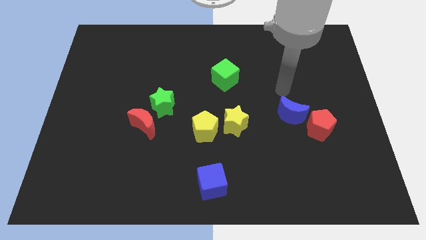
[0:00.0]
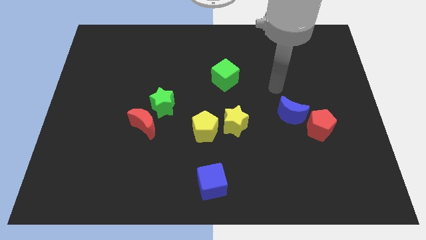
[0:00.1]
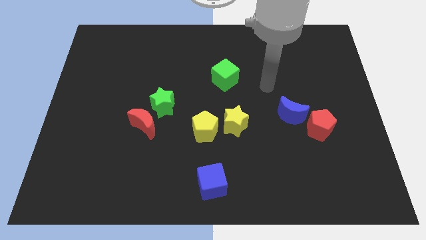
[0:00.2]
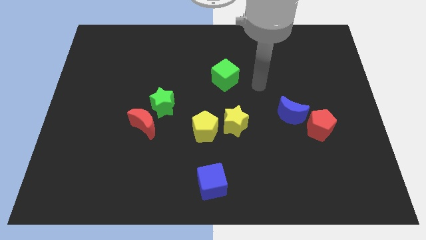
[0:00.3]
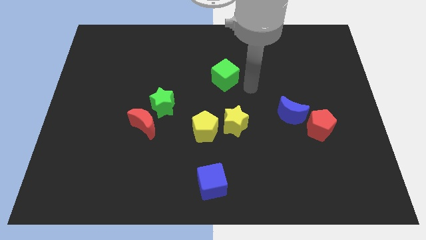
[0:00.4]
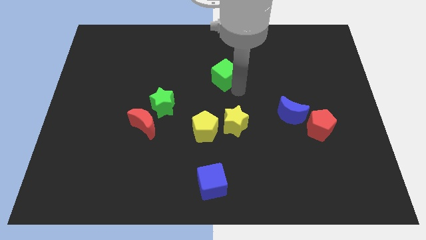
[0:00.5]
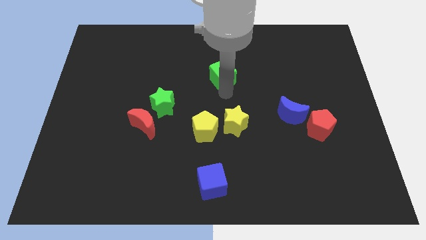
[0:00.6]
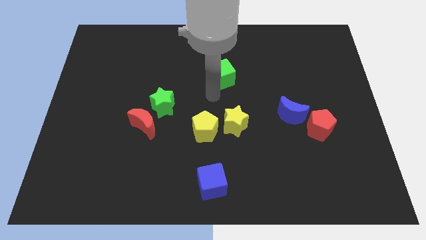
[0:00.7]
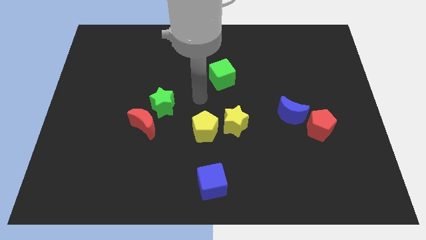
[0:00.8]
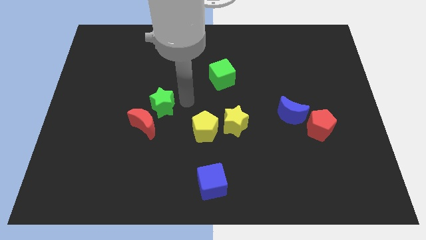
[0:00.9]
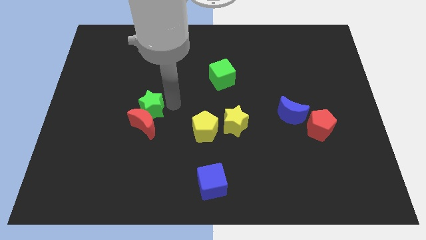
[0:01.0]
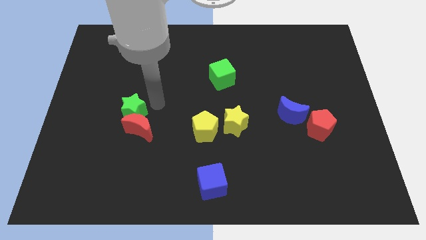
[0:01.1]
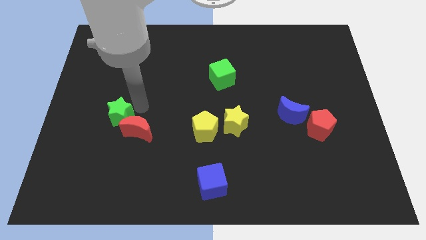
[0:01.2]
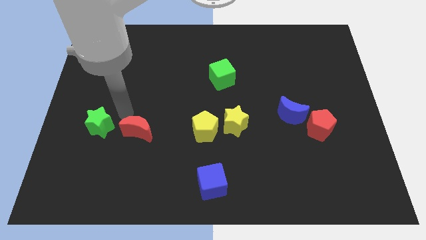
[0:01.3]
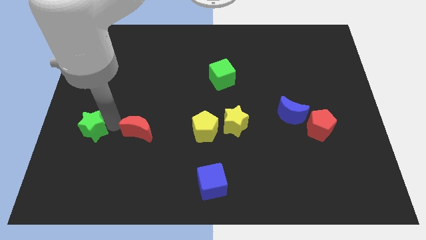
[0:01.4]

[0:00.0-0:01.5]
pull the red moon apart from the green star

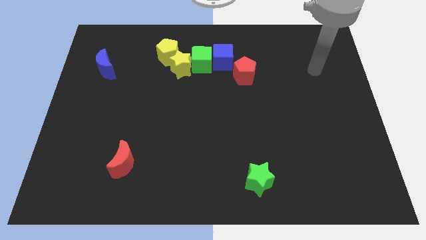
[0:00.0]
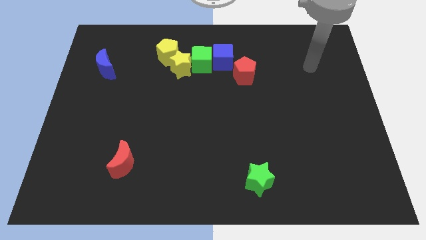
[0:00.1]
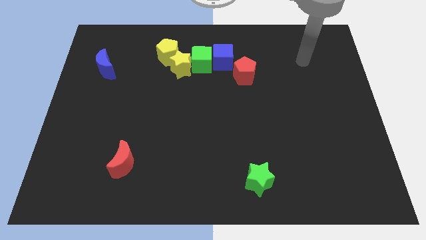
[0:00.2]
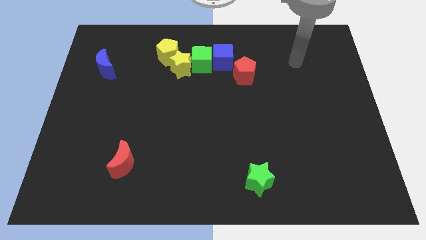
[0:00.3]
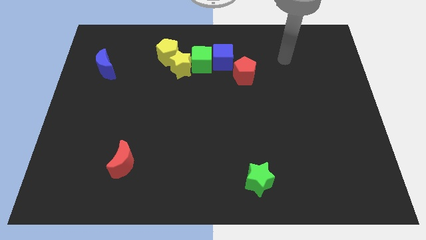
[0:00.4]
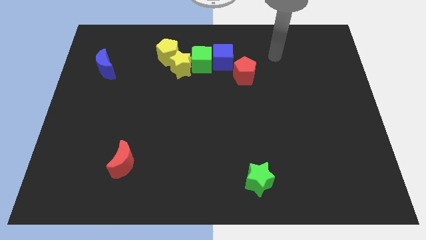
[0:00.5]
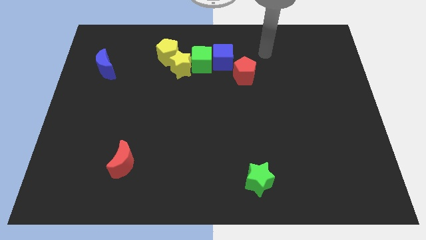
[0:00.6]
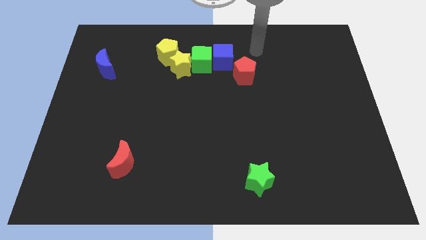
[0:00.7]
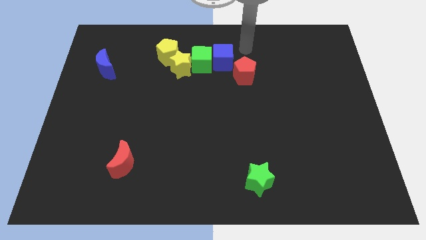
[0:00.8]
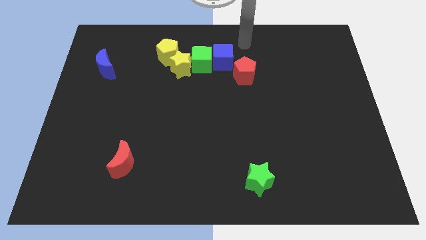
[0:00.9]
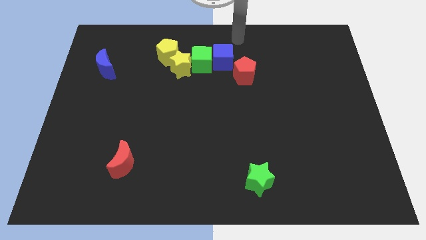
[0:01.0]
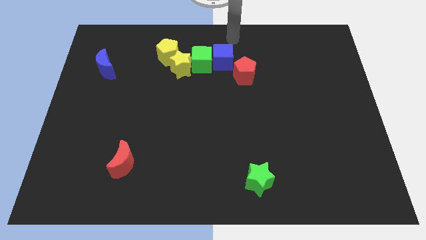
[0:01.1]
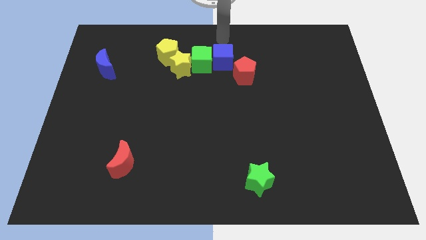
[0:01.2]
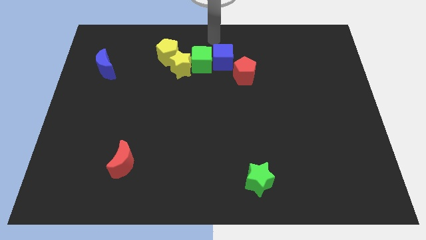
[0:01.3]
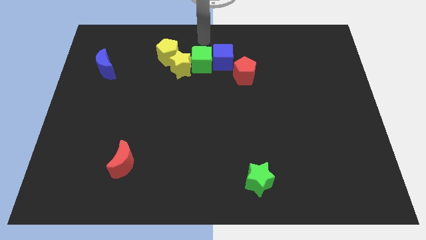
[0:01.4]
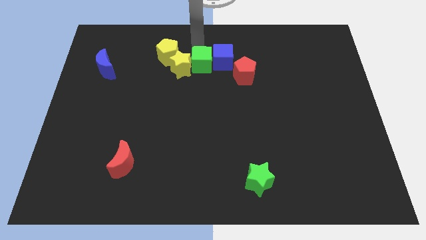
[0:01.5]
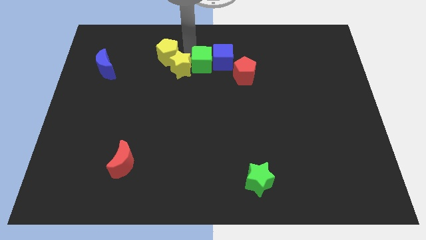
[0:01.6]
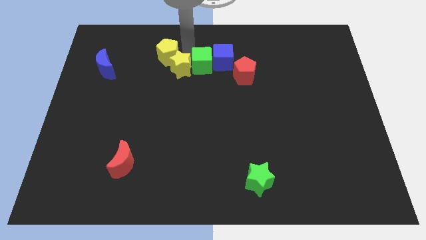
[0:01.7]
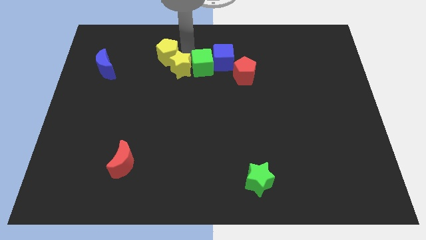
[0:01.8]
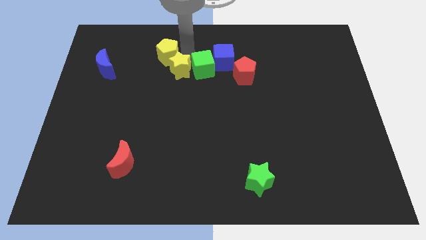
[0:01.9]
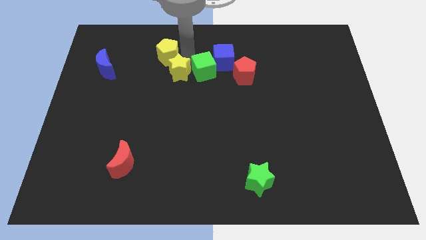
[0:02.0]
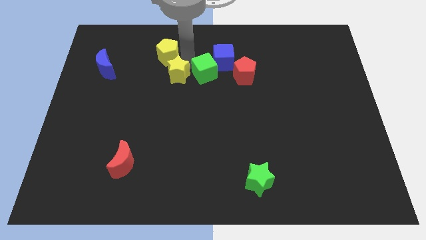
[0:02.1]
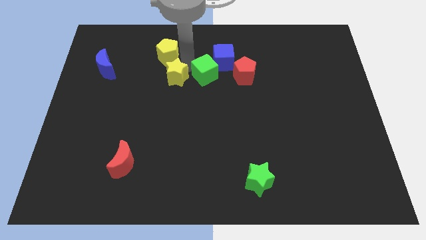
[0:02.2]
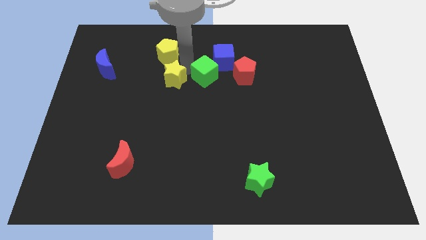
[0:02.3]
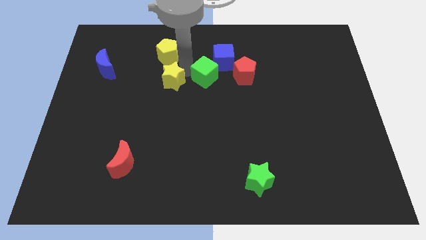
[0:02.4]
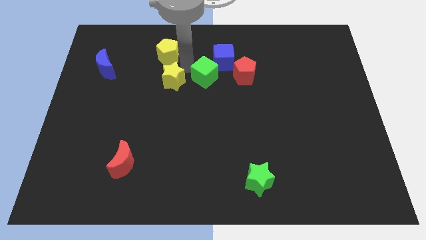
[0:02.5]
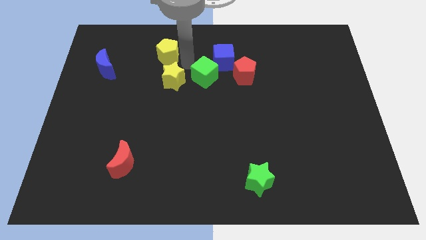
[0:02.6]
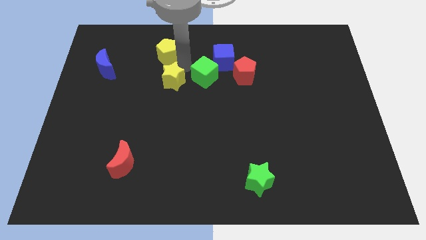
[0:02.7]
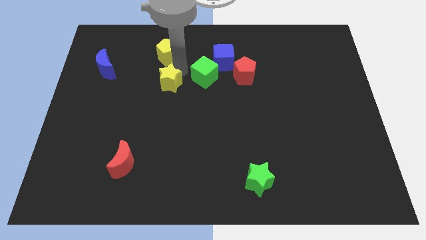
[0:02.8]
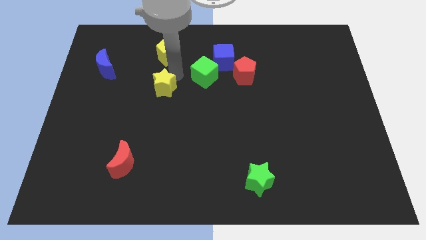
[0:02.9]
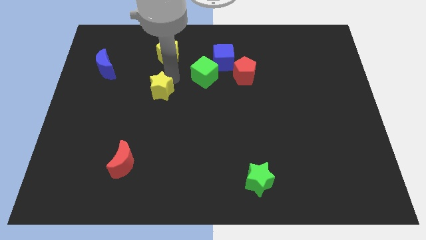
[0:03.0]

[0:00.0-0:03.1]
move the yellow star away from the green cube and yellow pentagon

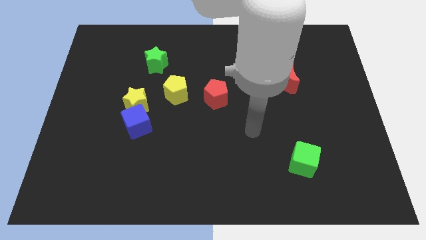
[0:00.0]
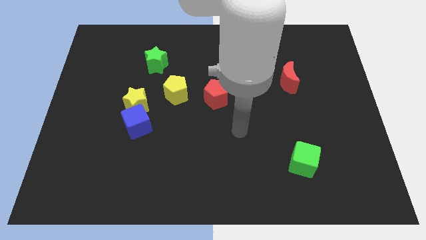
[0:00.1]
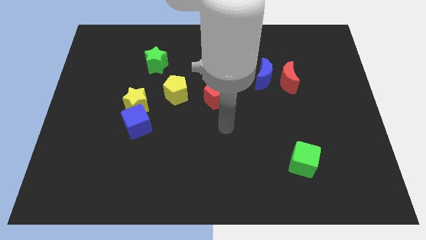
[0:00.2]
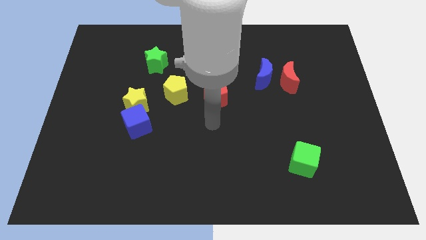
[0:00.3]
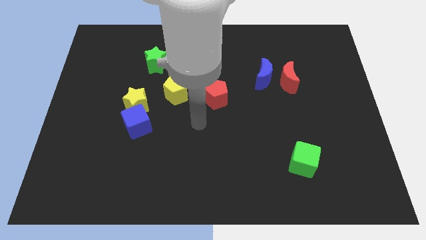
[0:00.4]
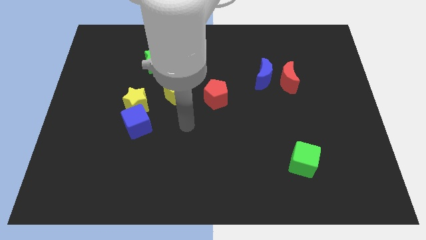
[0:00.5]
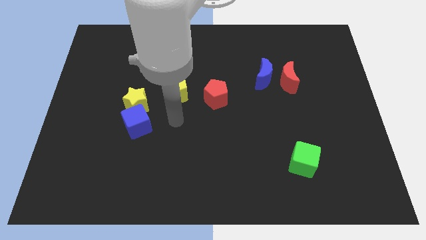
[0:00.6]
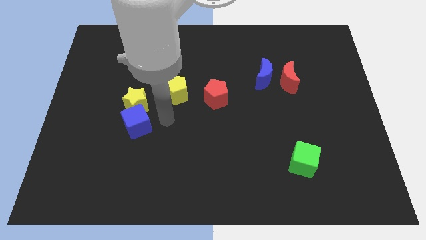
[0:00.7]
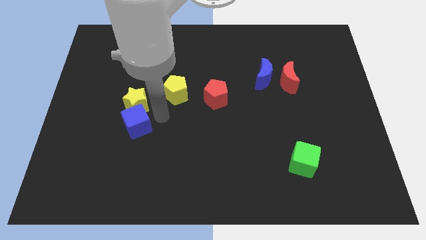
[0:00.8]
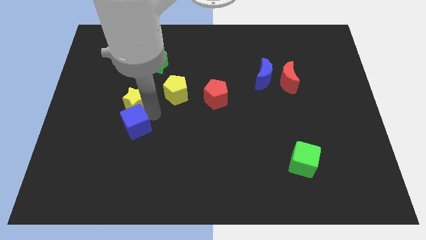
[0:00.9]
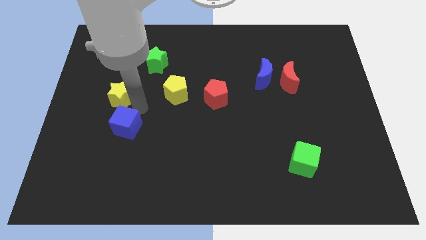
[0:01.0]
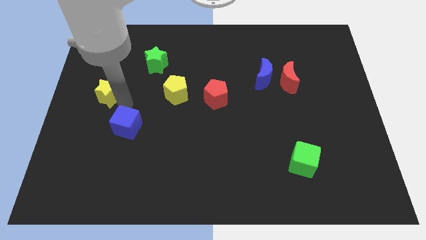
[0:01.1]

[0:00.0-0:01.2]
separate the blue cube from the yellow star

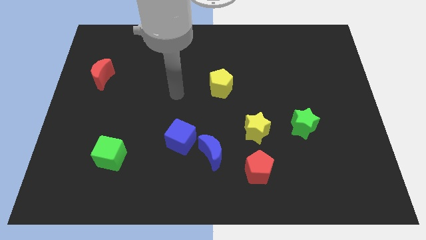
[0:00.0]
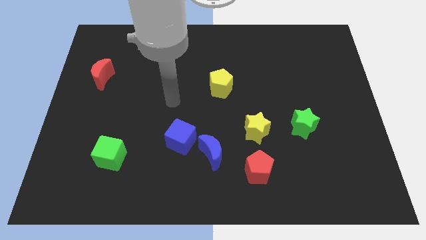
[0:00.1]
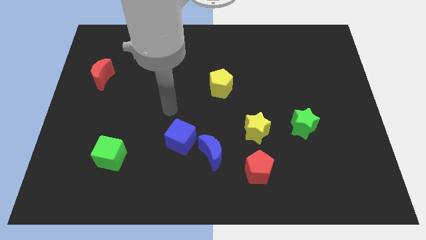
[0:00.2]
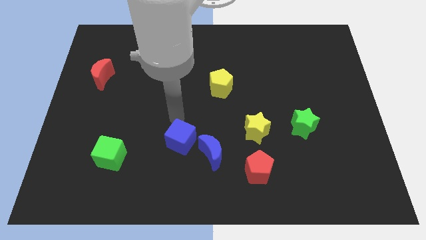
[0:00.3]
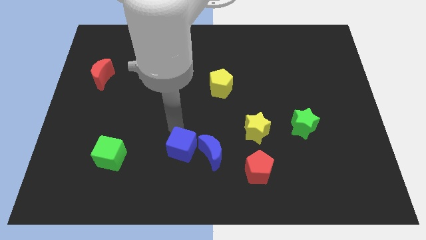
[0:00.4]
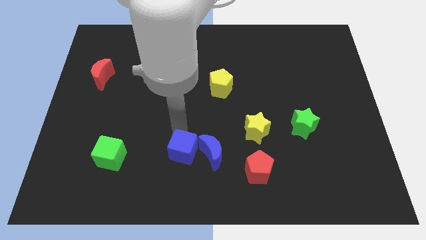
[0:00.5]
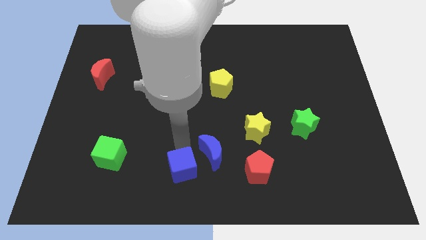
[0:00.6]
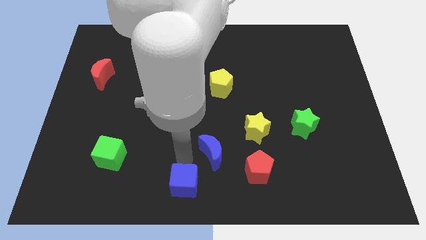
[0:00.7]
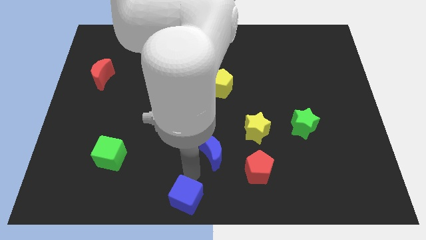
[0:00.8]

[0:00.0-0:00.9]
pull the blue moon apart from the blue cube

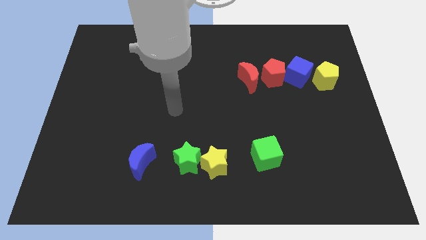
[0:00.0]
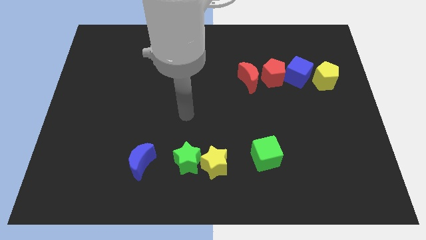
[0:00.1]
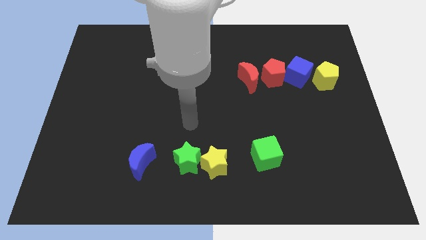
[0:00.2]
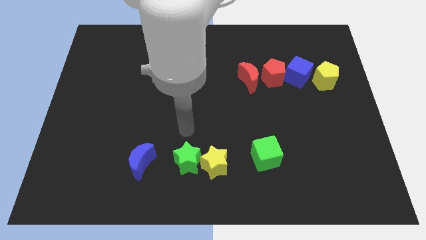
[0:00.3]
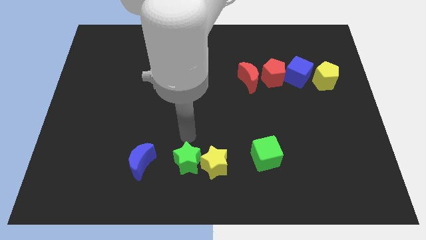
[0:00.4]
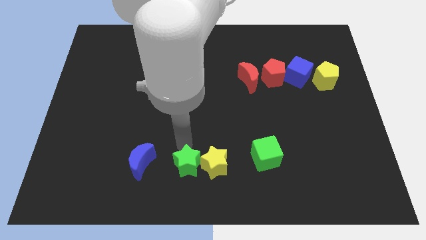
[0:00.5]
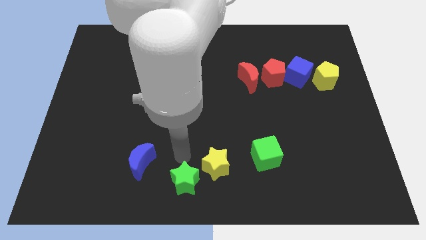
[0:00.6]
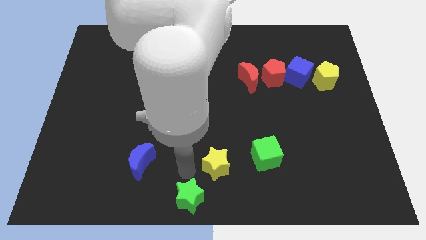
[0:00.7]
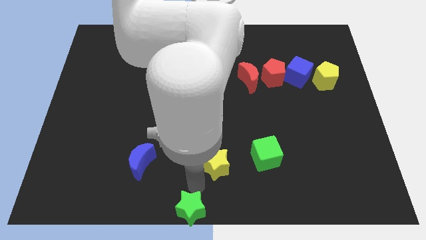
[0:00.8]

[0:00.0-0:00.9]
move the yellow star away from the green star

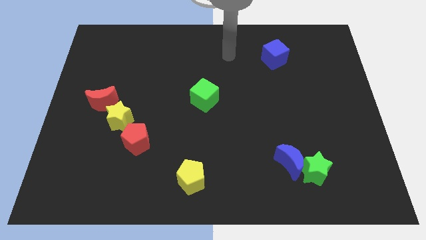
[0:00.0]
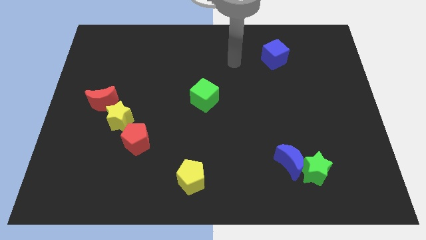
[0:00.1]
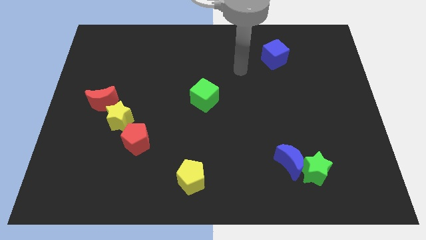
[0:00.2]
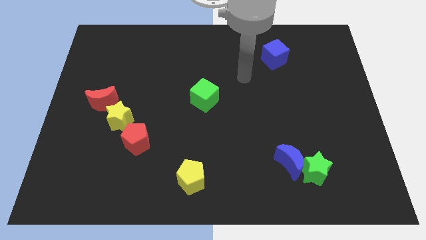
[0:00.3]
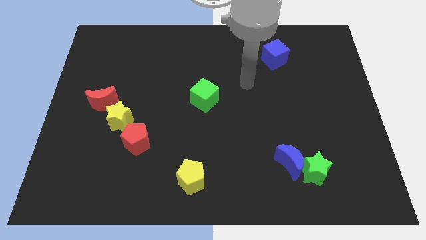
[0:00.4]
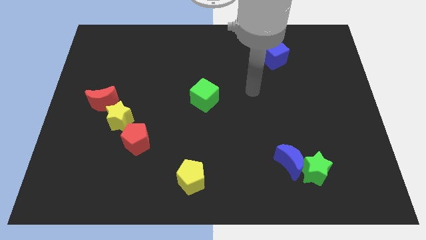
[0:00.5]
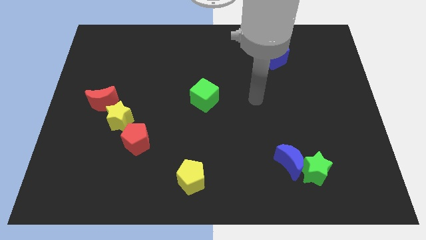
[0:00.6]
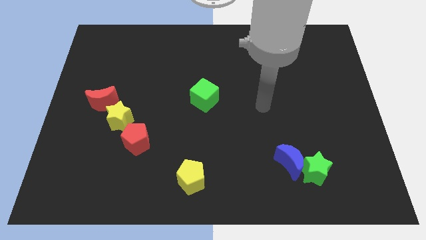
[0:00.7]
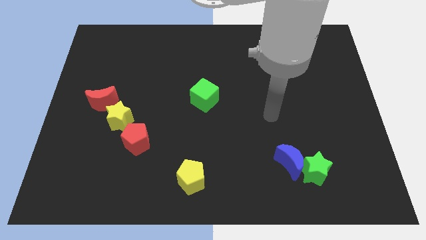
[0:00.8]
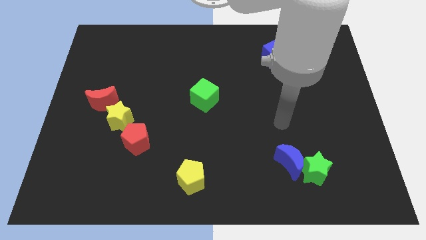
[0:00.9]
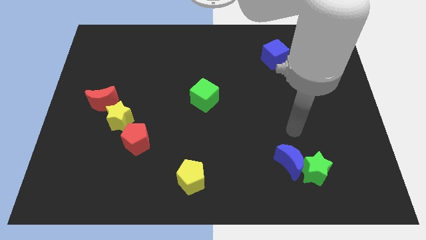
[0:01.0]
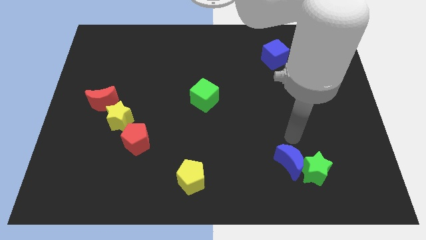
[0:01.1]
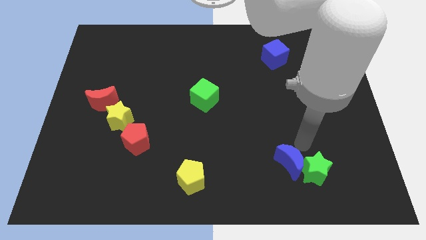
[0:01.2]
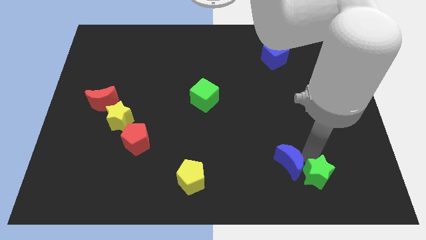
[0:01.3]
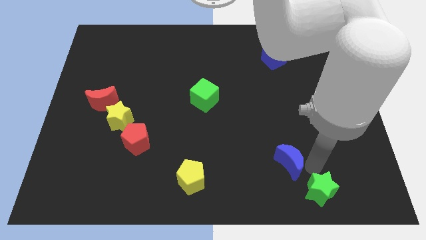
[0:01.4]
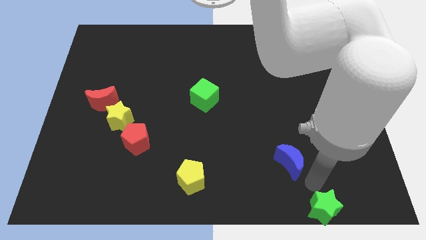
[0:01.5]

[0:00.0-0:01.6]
pull the blue moon apart from the green star
